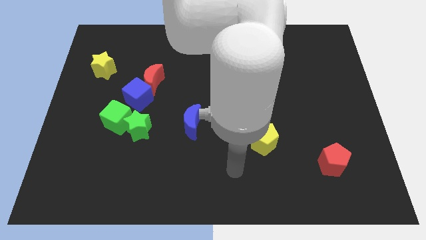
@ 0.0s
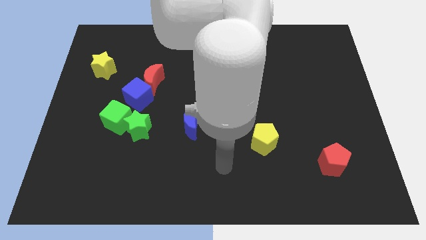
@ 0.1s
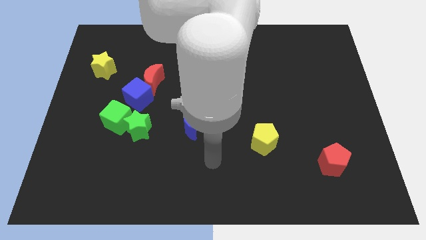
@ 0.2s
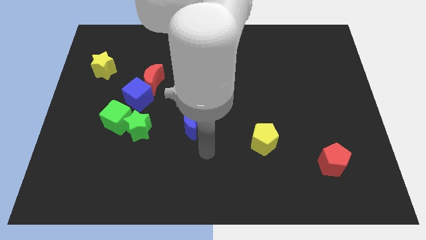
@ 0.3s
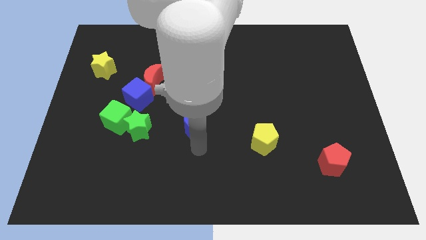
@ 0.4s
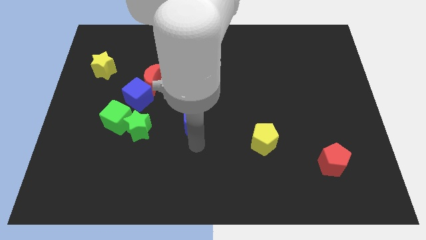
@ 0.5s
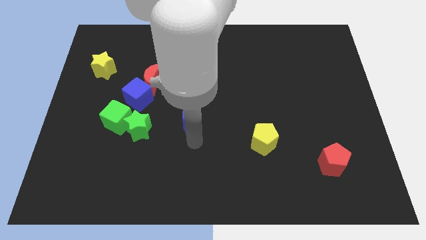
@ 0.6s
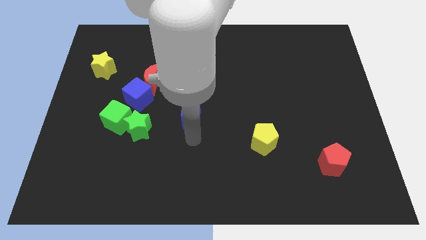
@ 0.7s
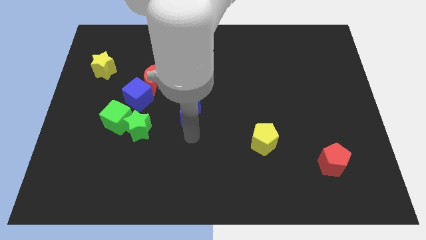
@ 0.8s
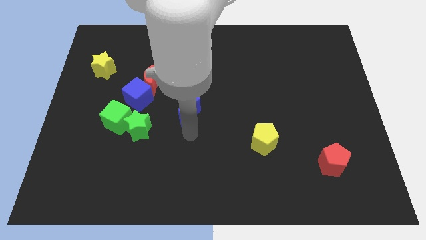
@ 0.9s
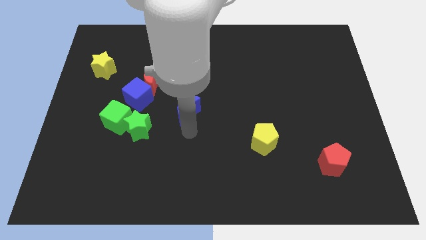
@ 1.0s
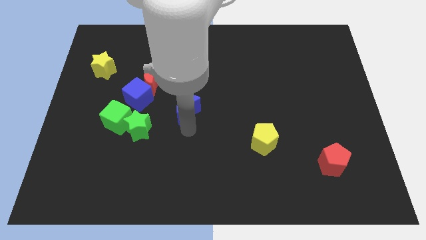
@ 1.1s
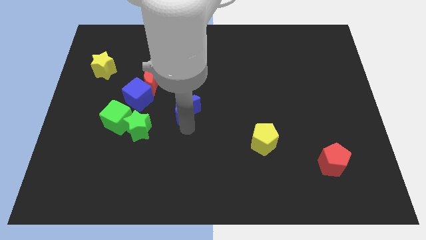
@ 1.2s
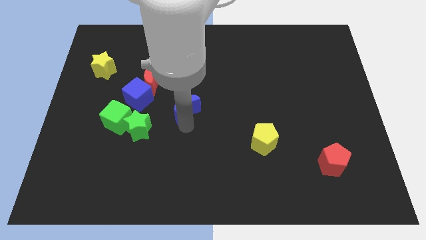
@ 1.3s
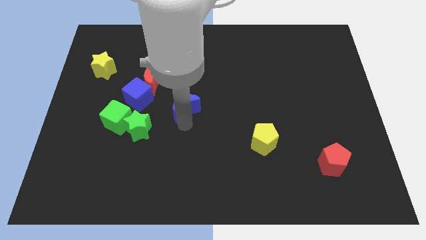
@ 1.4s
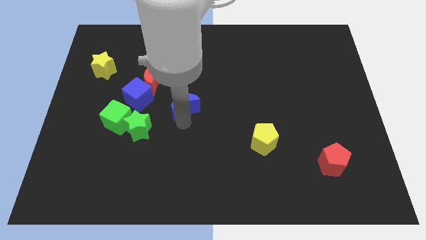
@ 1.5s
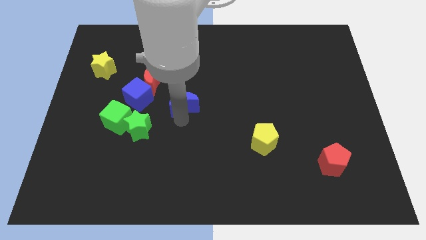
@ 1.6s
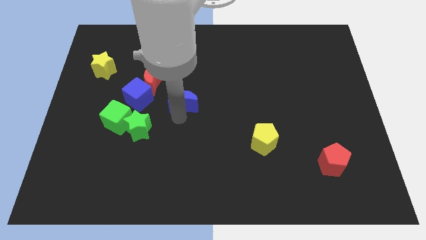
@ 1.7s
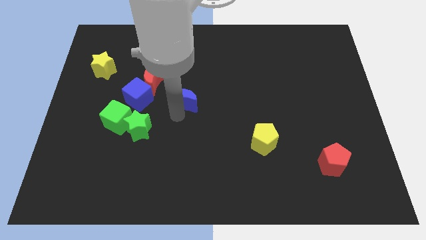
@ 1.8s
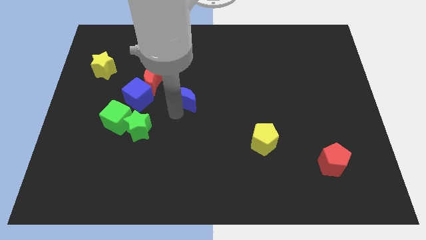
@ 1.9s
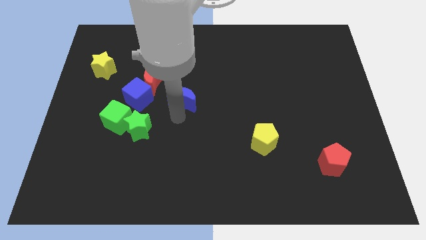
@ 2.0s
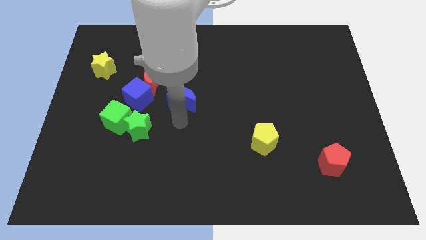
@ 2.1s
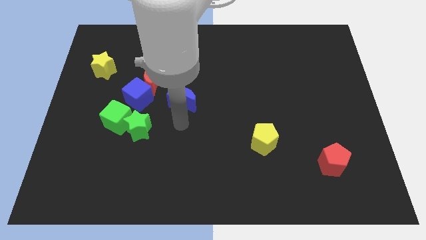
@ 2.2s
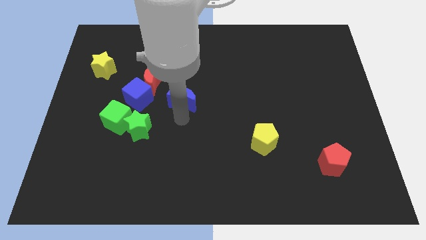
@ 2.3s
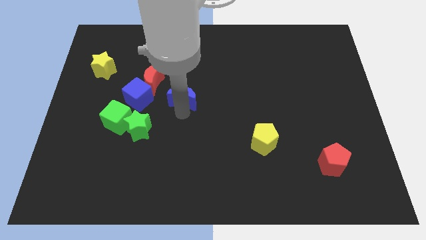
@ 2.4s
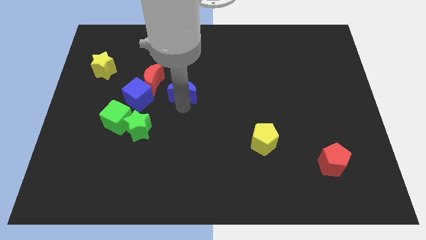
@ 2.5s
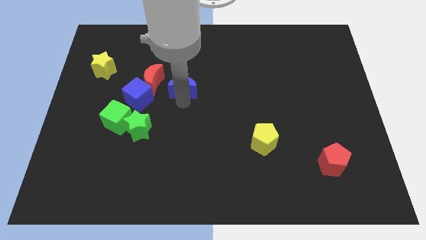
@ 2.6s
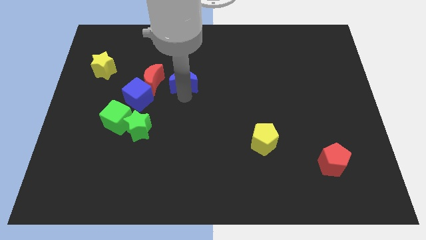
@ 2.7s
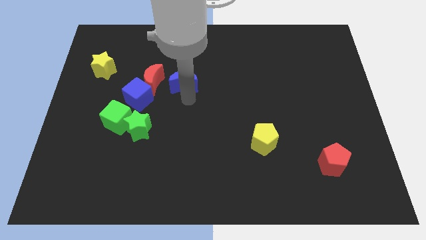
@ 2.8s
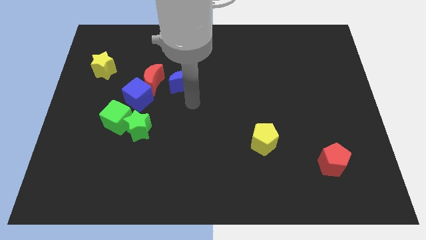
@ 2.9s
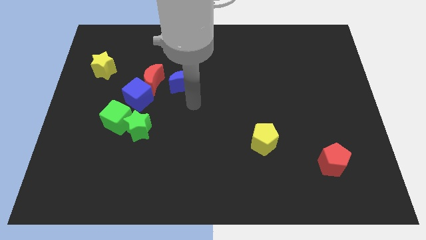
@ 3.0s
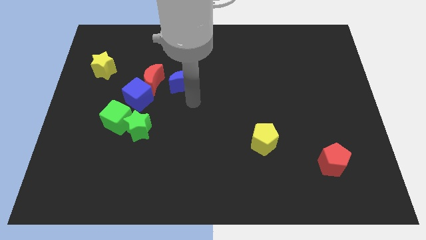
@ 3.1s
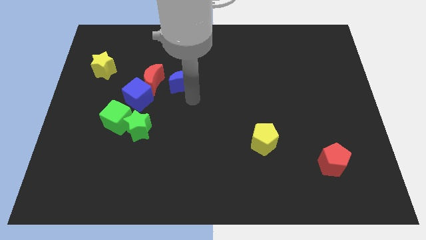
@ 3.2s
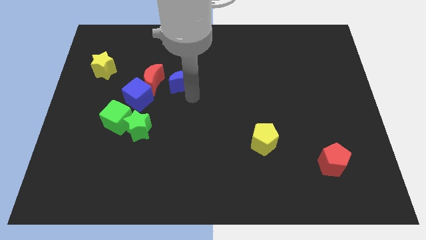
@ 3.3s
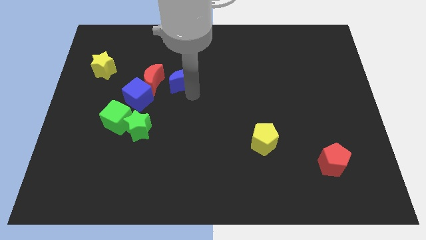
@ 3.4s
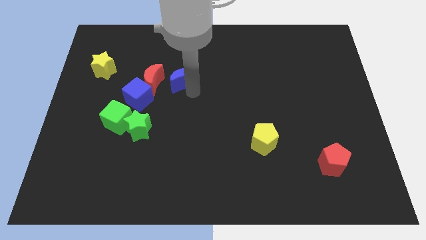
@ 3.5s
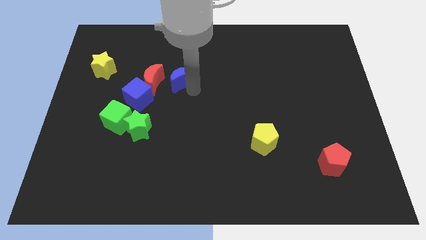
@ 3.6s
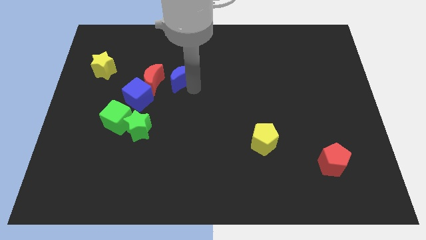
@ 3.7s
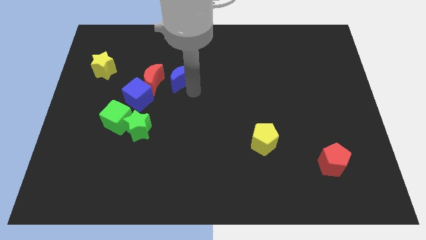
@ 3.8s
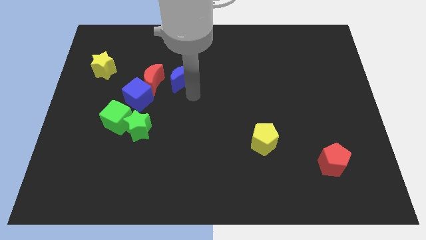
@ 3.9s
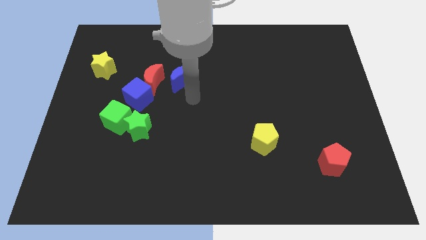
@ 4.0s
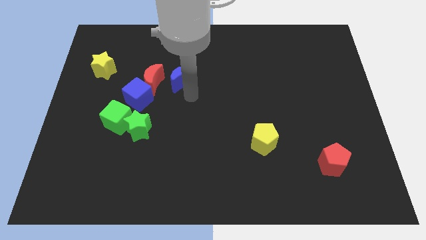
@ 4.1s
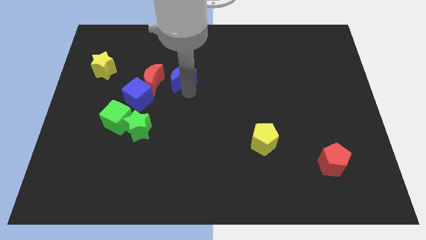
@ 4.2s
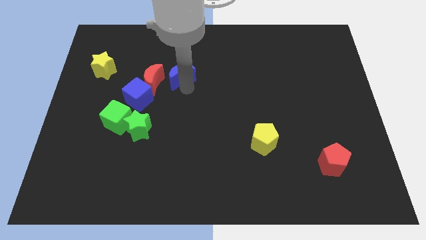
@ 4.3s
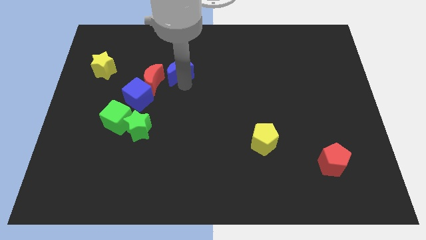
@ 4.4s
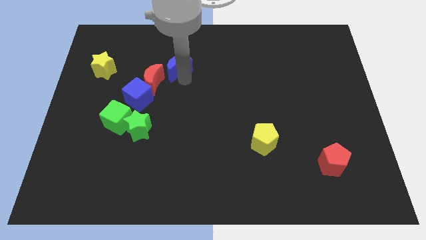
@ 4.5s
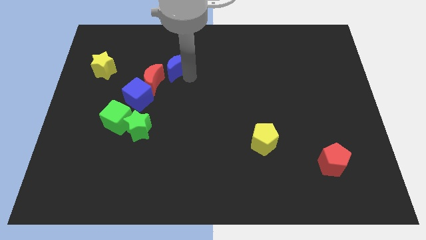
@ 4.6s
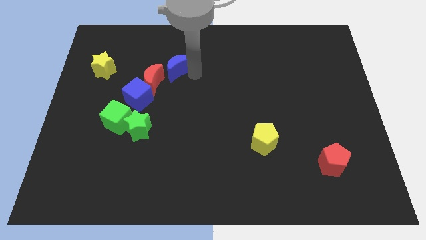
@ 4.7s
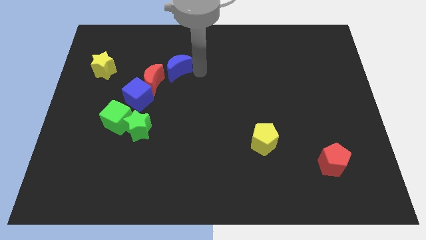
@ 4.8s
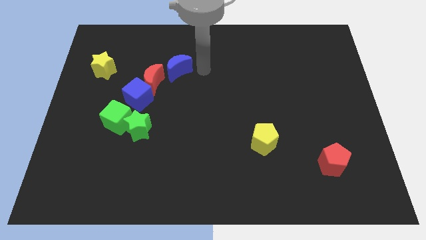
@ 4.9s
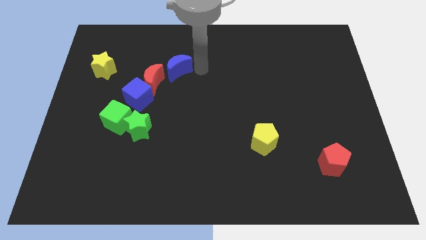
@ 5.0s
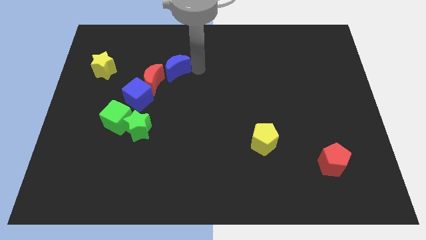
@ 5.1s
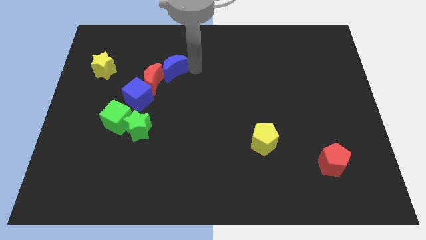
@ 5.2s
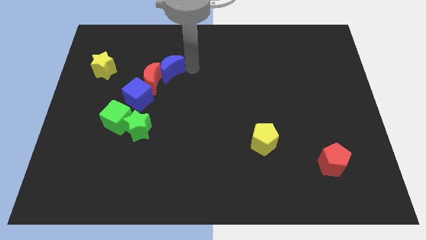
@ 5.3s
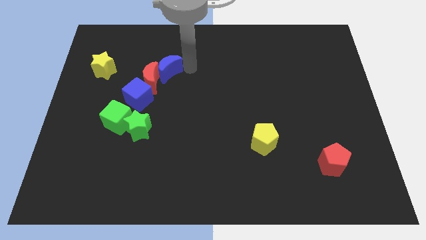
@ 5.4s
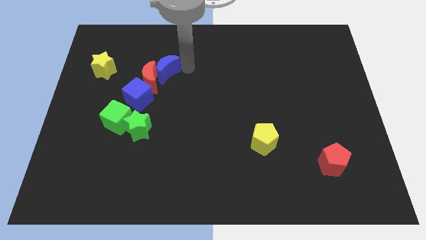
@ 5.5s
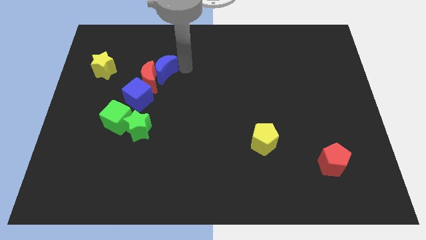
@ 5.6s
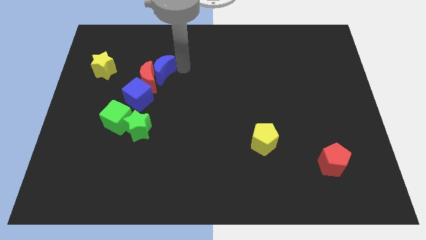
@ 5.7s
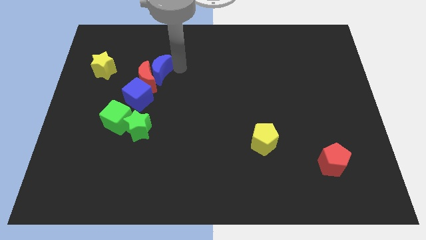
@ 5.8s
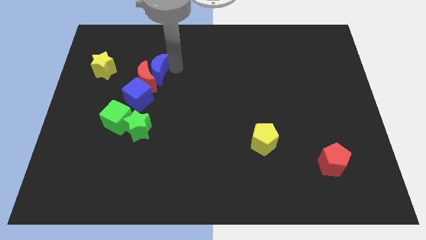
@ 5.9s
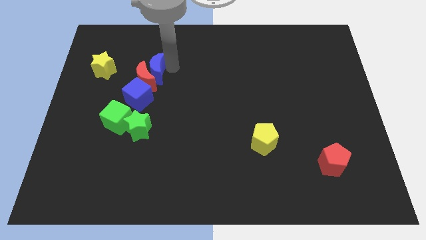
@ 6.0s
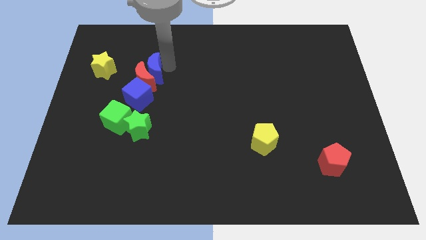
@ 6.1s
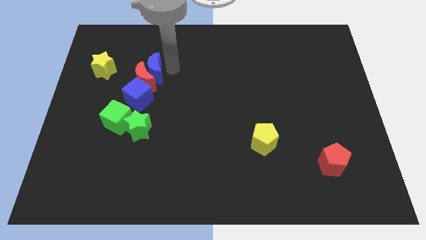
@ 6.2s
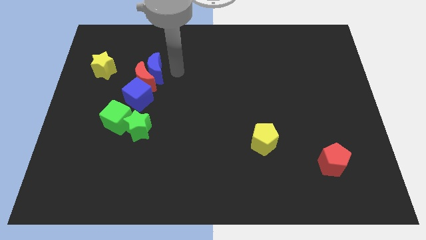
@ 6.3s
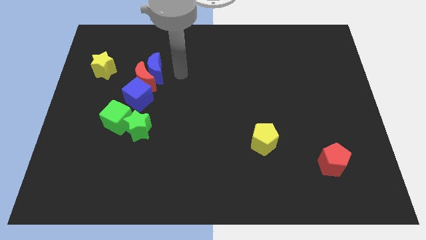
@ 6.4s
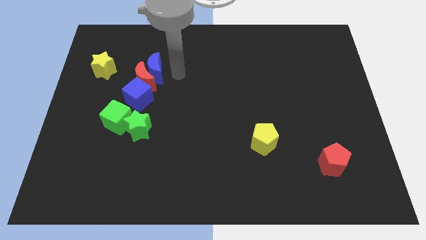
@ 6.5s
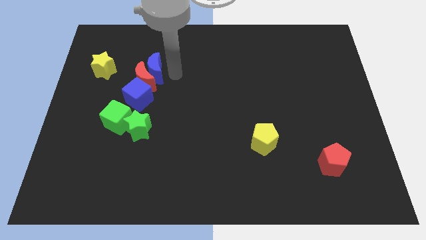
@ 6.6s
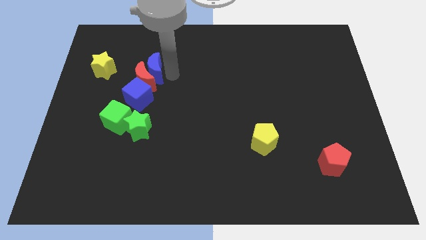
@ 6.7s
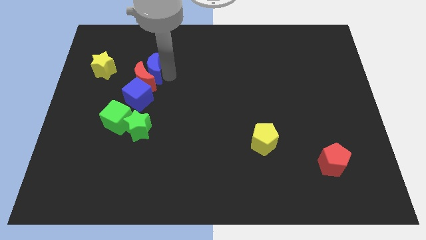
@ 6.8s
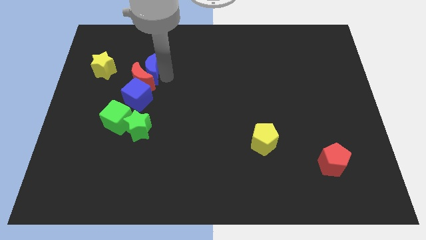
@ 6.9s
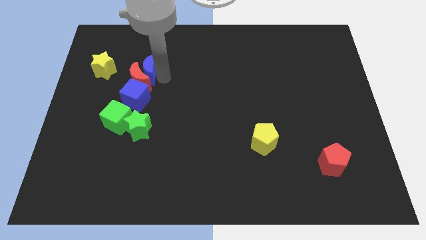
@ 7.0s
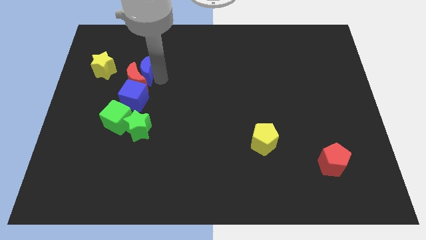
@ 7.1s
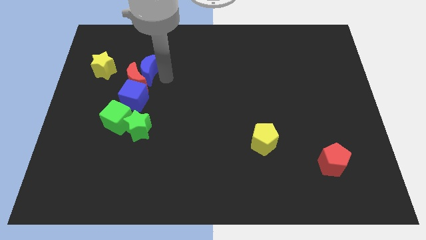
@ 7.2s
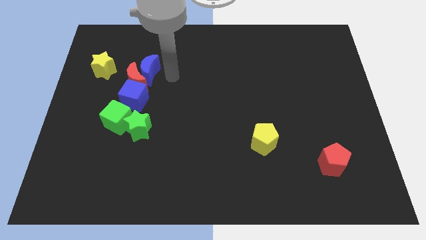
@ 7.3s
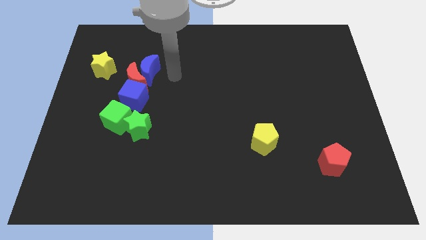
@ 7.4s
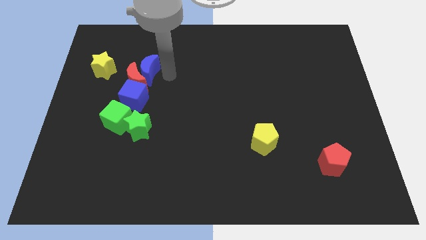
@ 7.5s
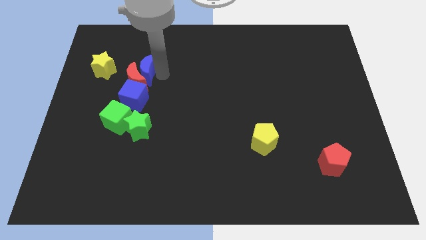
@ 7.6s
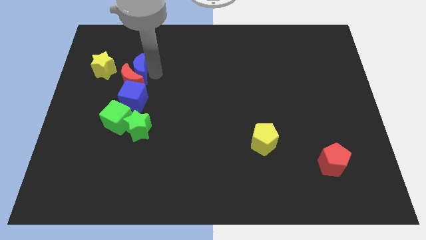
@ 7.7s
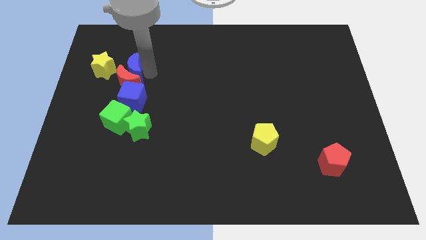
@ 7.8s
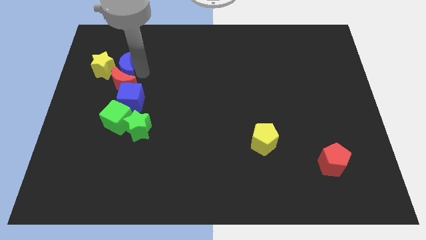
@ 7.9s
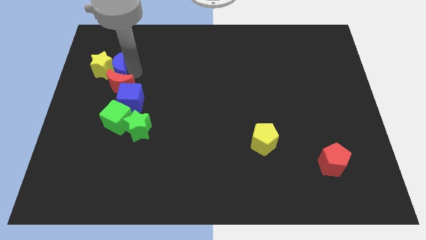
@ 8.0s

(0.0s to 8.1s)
slide the blue moon close to the yellow star

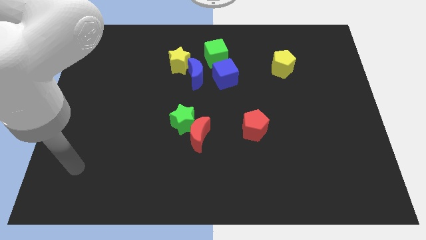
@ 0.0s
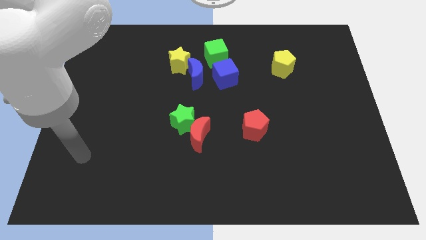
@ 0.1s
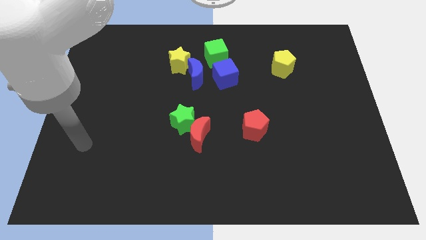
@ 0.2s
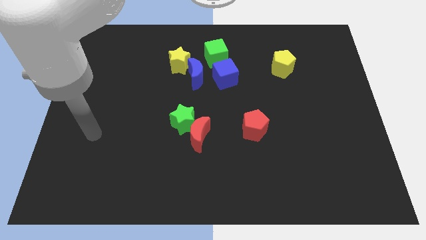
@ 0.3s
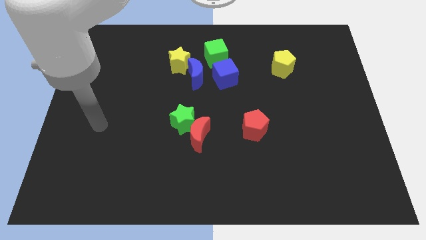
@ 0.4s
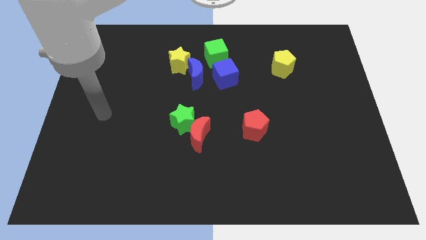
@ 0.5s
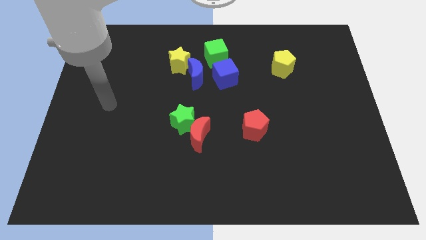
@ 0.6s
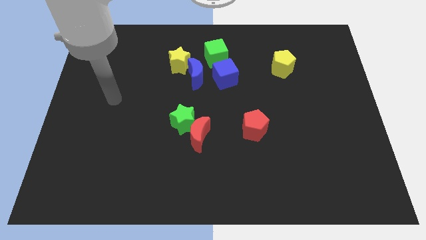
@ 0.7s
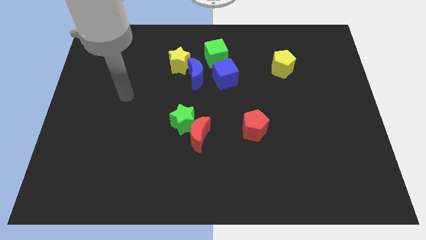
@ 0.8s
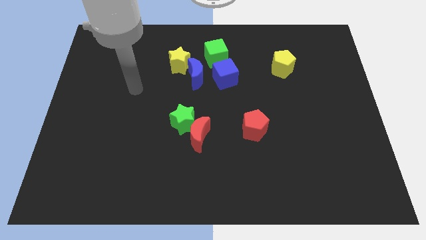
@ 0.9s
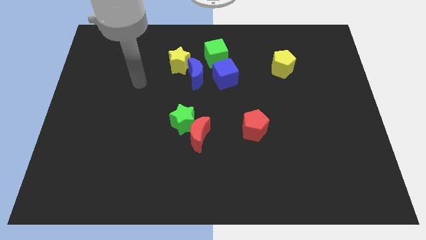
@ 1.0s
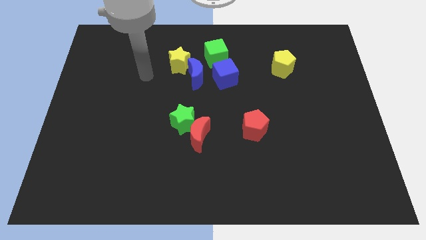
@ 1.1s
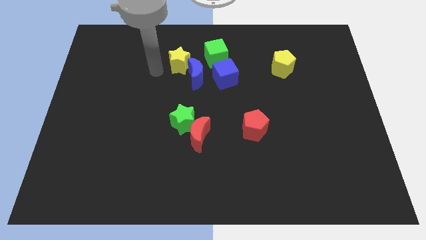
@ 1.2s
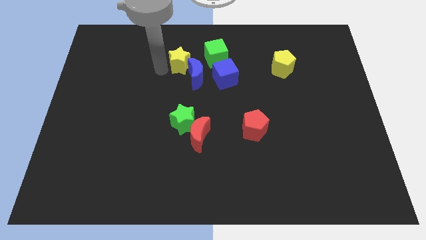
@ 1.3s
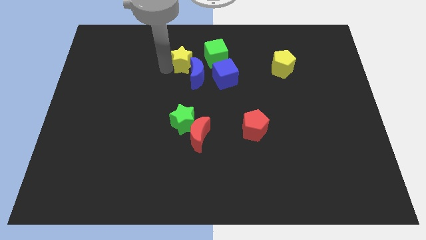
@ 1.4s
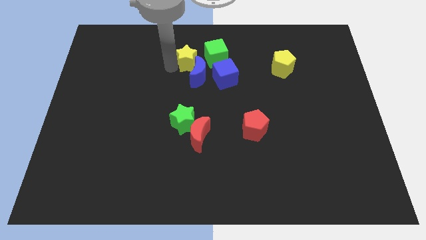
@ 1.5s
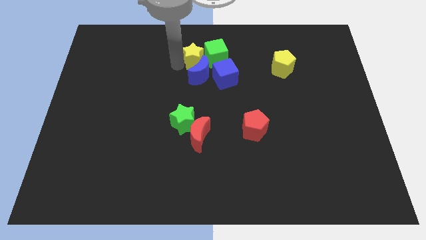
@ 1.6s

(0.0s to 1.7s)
push the yellow star close to the green cube
